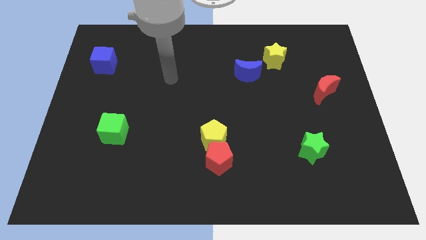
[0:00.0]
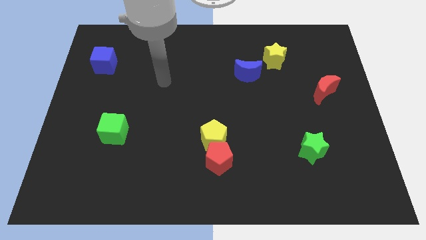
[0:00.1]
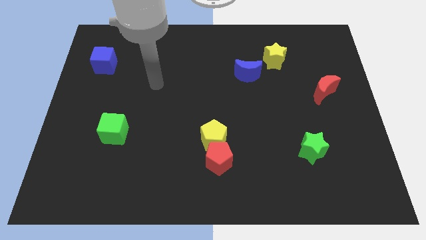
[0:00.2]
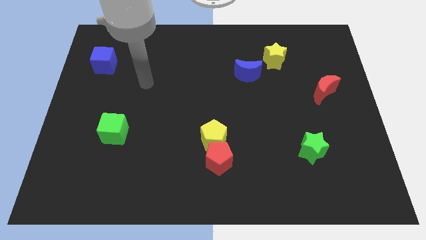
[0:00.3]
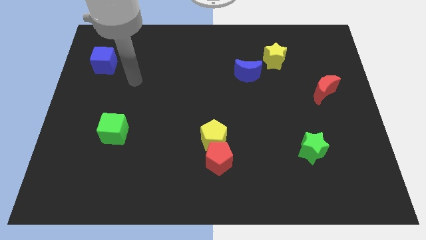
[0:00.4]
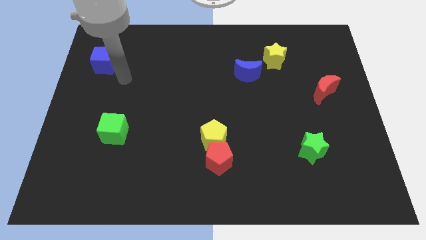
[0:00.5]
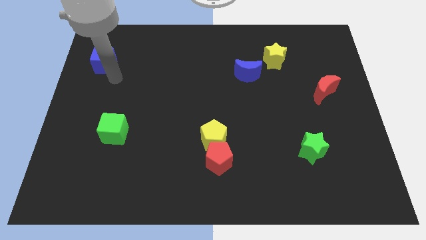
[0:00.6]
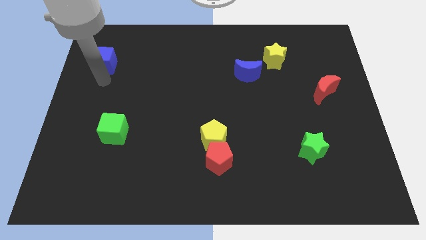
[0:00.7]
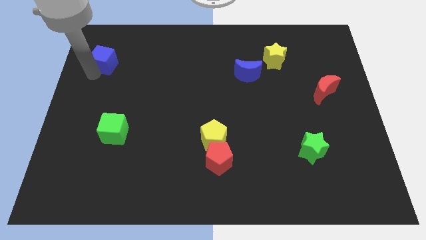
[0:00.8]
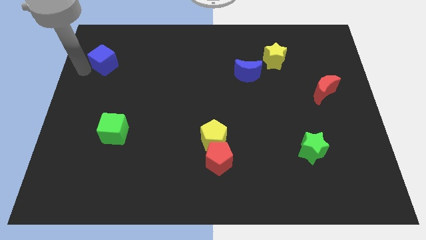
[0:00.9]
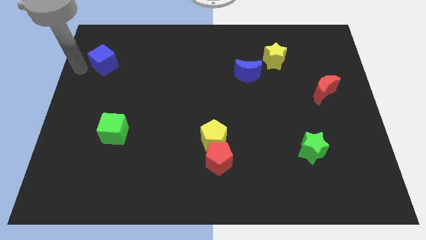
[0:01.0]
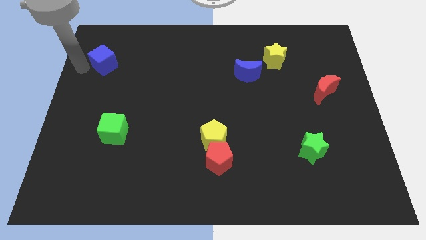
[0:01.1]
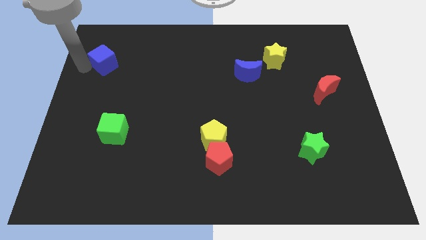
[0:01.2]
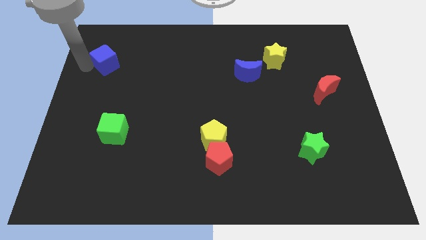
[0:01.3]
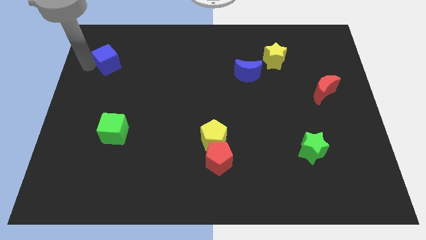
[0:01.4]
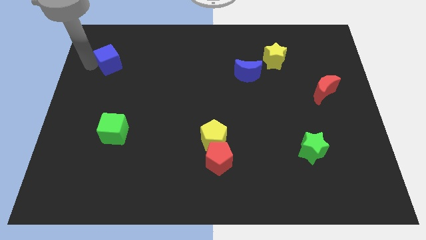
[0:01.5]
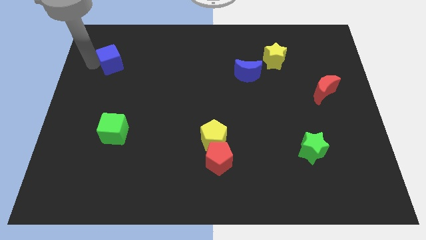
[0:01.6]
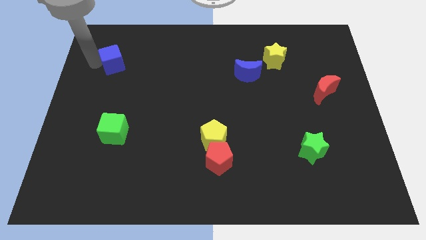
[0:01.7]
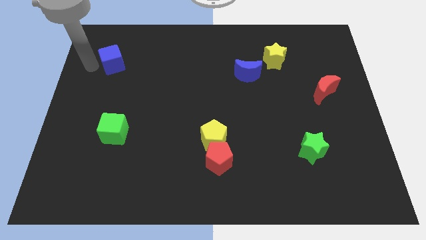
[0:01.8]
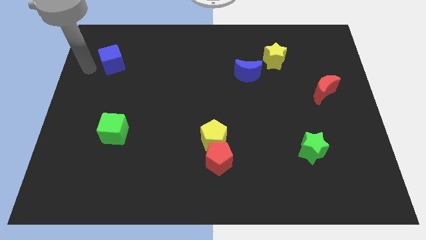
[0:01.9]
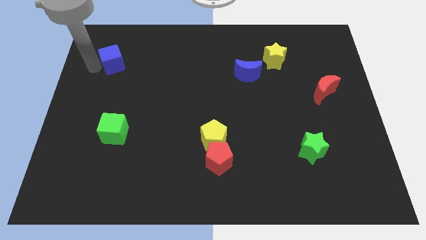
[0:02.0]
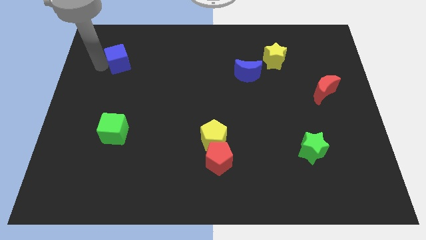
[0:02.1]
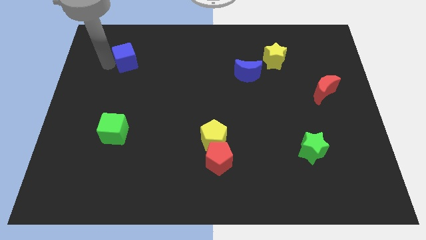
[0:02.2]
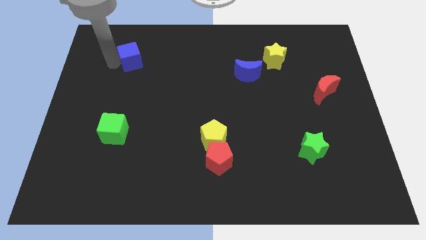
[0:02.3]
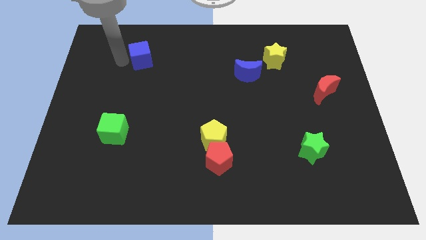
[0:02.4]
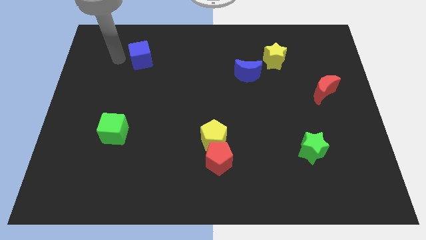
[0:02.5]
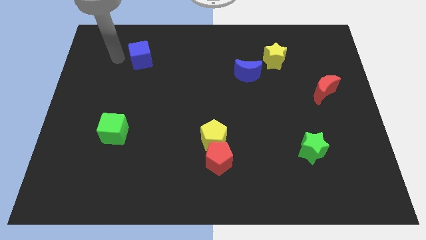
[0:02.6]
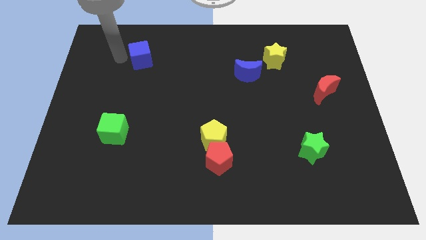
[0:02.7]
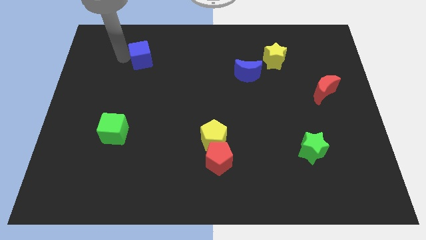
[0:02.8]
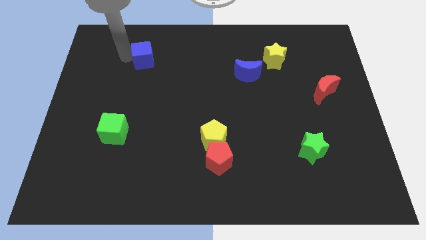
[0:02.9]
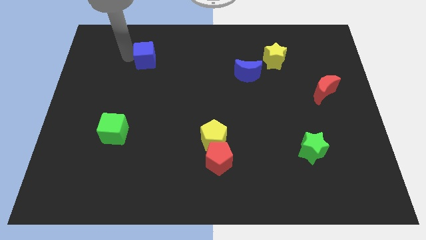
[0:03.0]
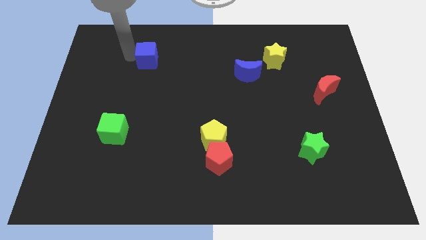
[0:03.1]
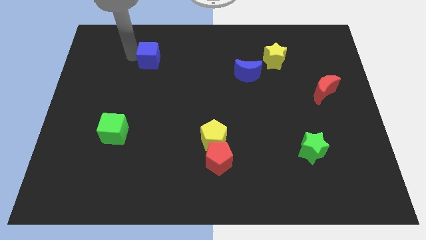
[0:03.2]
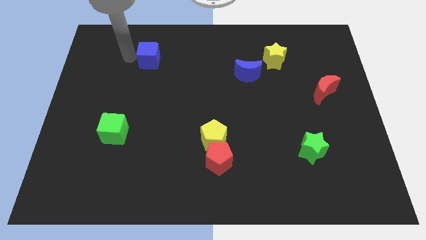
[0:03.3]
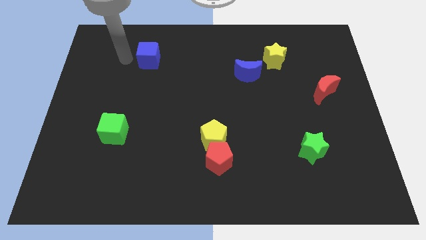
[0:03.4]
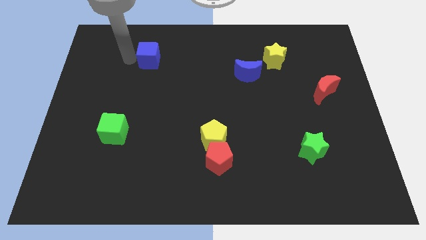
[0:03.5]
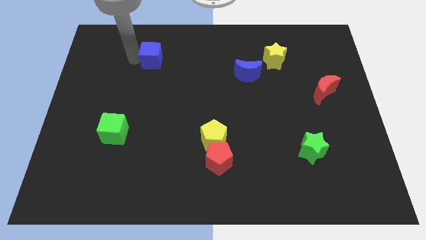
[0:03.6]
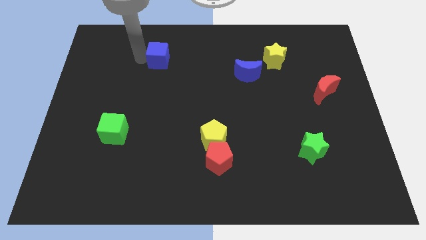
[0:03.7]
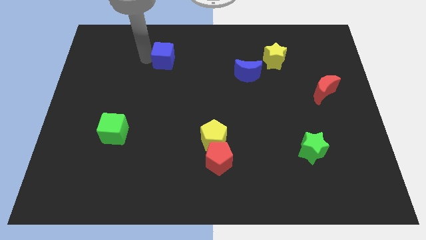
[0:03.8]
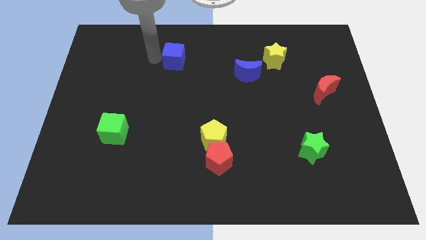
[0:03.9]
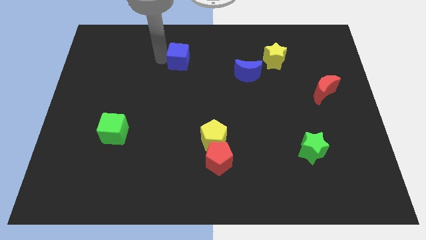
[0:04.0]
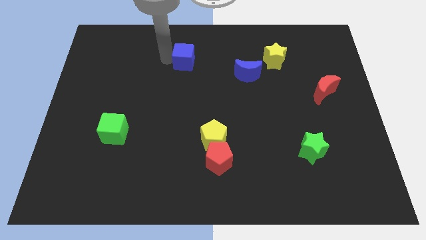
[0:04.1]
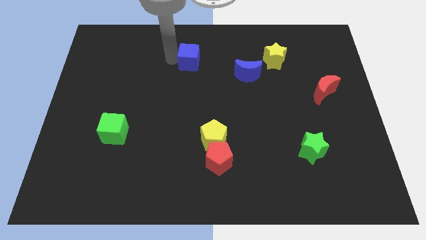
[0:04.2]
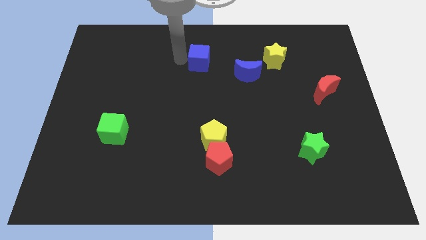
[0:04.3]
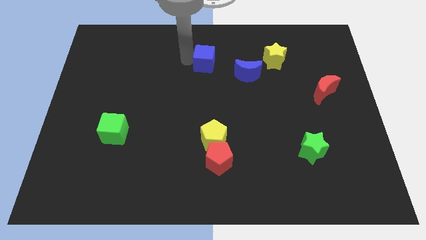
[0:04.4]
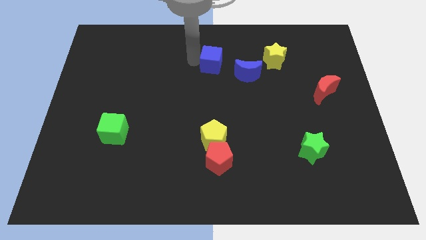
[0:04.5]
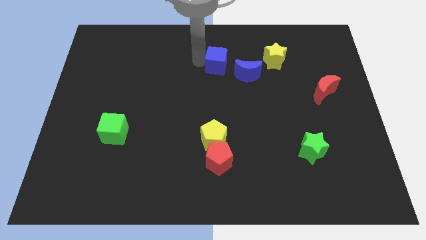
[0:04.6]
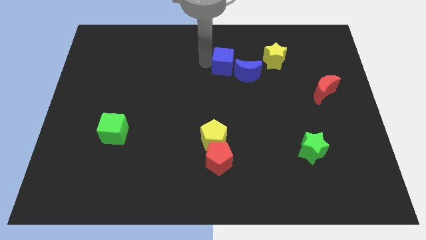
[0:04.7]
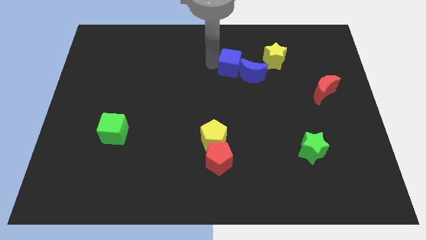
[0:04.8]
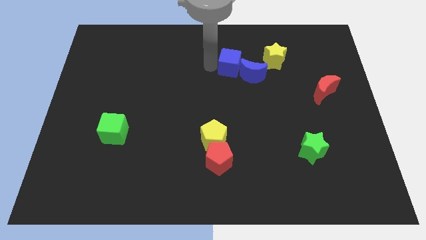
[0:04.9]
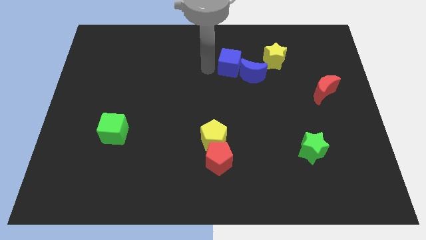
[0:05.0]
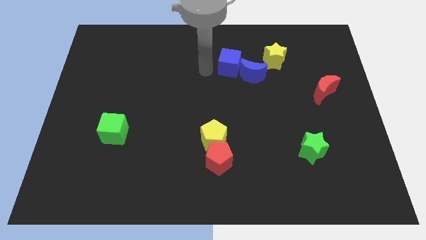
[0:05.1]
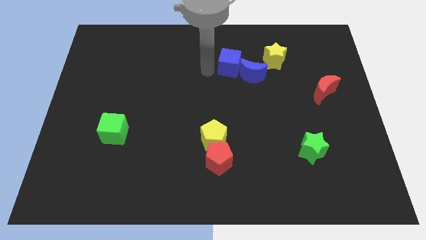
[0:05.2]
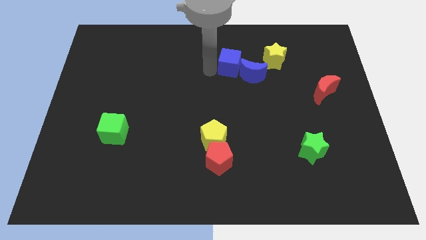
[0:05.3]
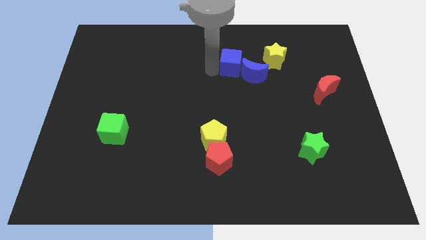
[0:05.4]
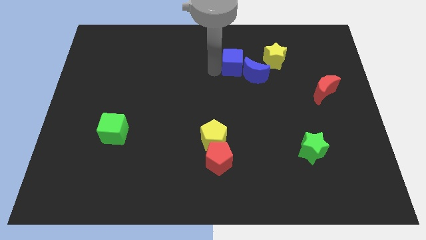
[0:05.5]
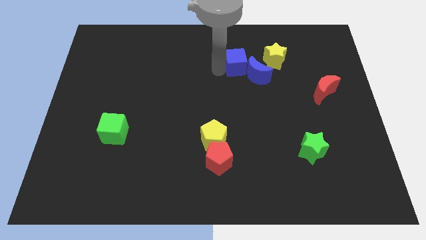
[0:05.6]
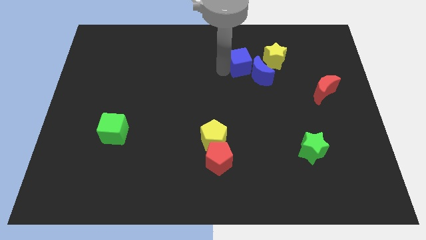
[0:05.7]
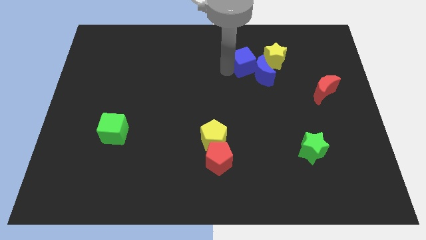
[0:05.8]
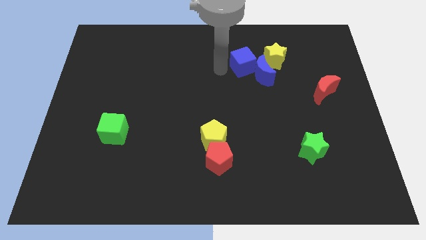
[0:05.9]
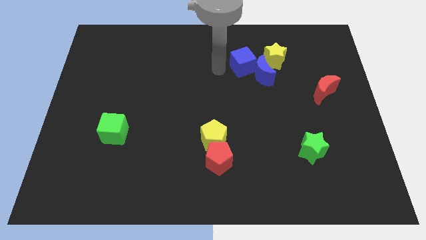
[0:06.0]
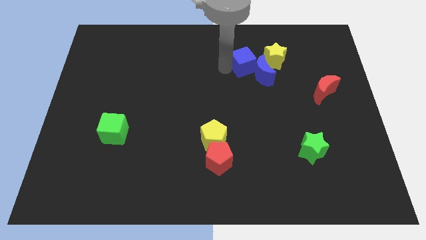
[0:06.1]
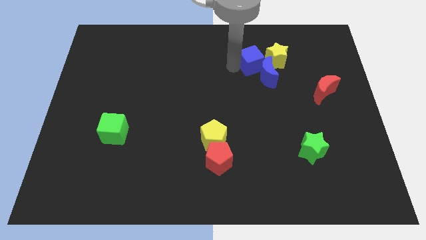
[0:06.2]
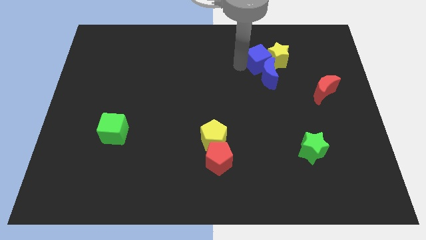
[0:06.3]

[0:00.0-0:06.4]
slide the blue cube close to the yellow star

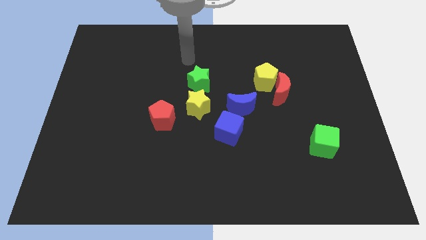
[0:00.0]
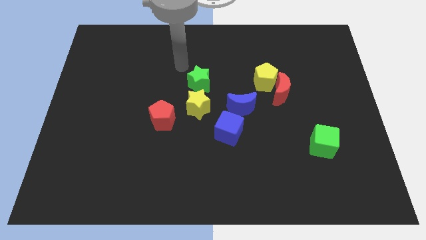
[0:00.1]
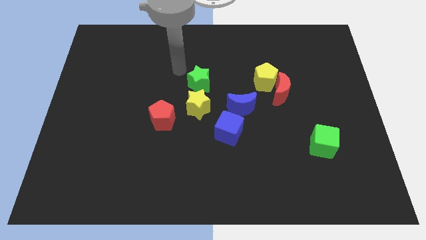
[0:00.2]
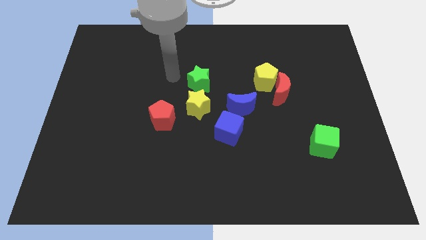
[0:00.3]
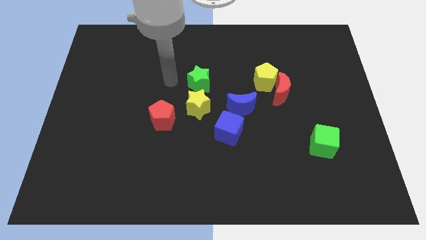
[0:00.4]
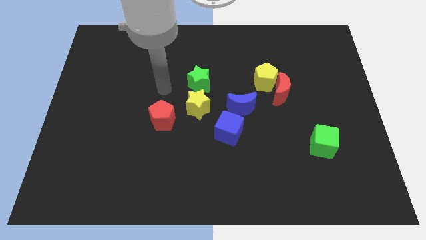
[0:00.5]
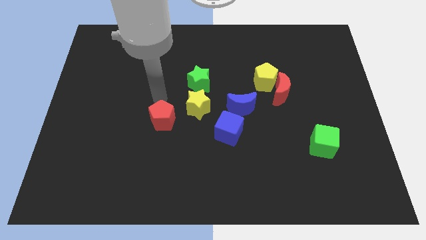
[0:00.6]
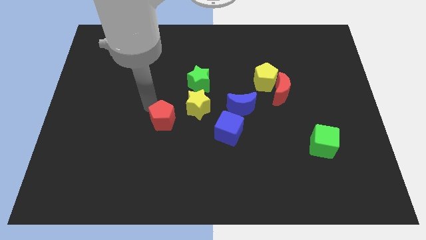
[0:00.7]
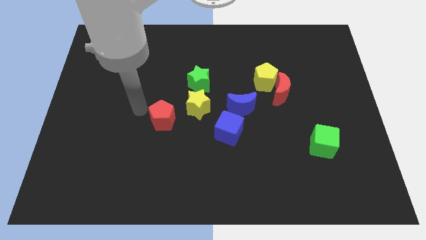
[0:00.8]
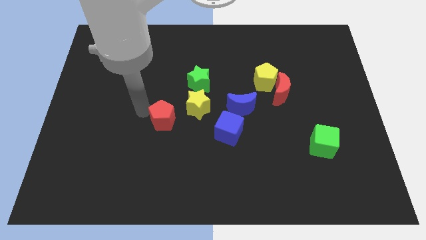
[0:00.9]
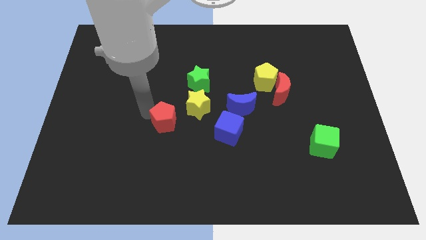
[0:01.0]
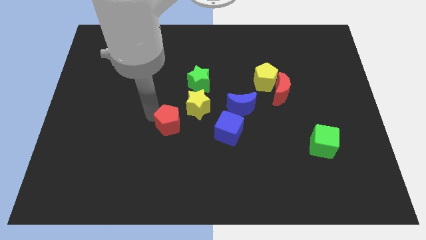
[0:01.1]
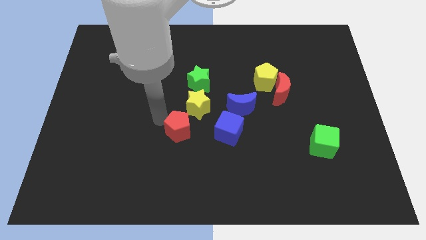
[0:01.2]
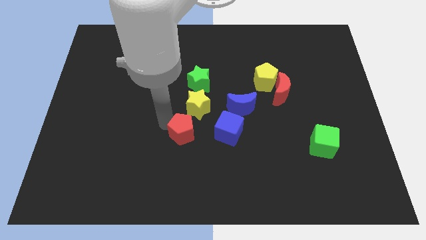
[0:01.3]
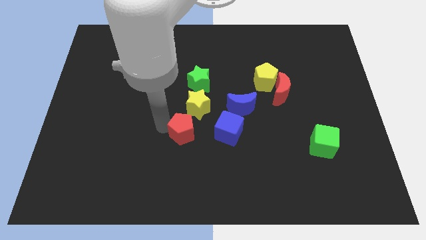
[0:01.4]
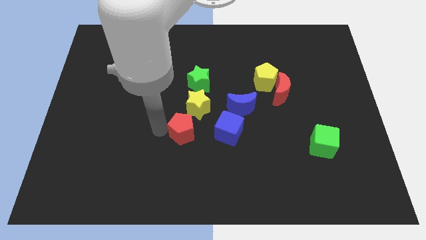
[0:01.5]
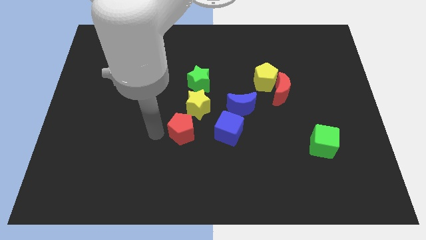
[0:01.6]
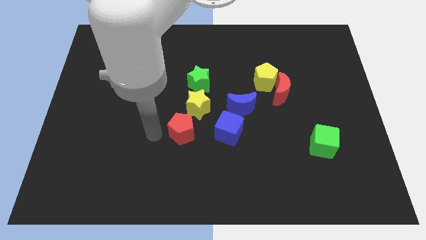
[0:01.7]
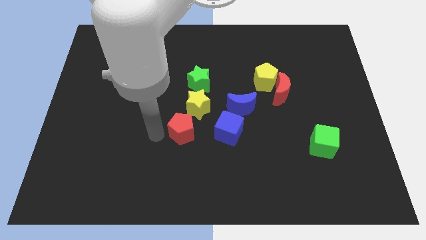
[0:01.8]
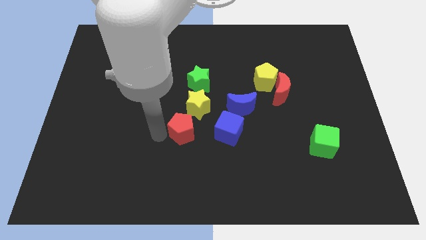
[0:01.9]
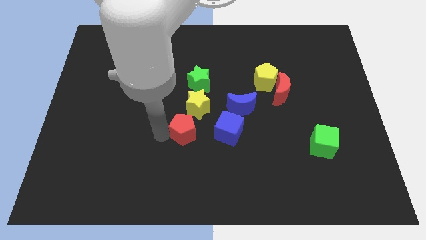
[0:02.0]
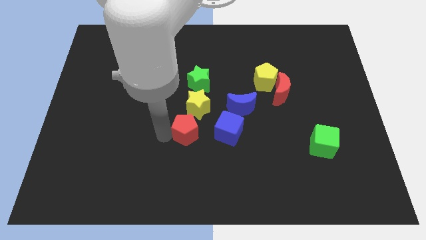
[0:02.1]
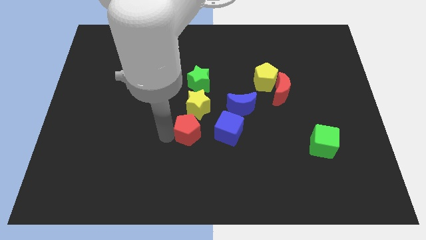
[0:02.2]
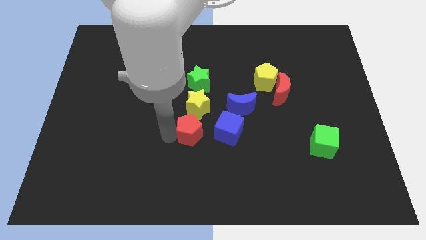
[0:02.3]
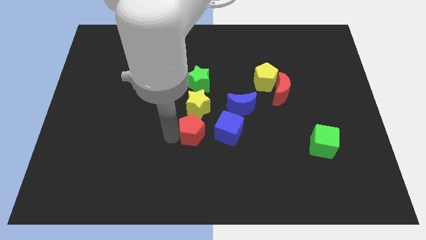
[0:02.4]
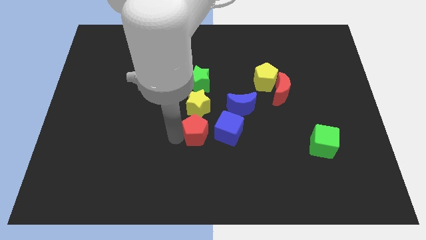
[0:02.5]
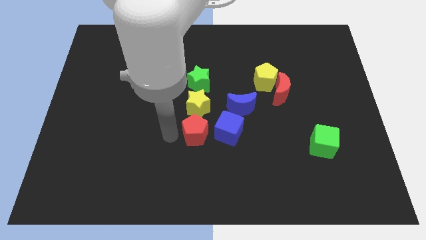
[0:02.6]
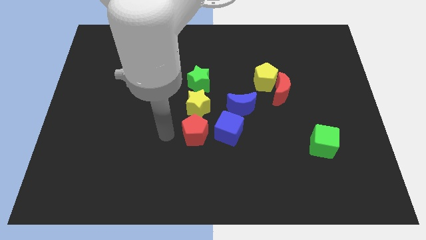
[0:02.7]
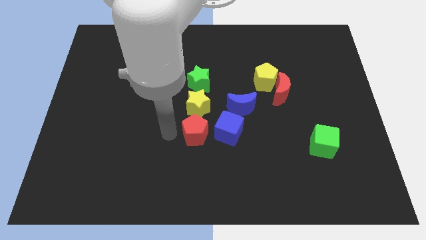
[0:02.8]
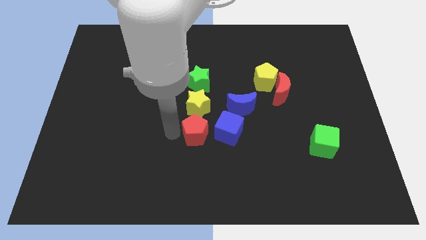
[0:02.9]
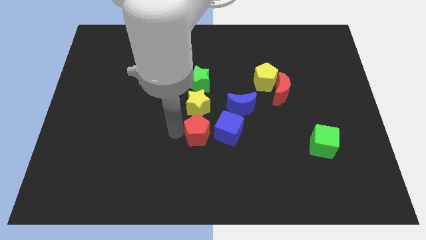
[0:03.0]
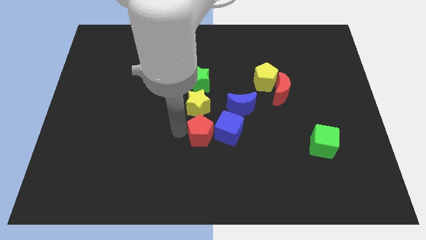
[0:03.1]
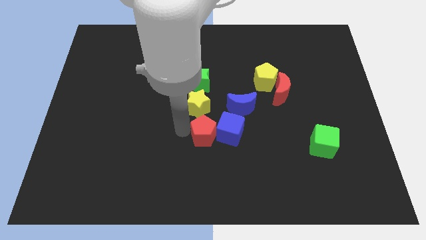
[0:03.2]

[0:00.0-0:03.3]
slide the red pentagon to the blue cube
